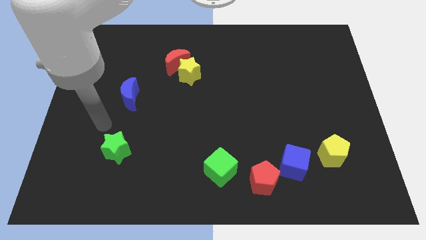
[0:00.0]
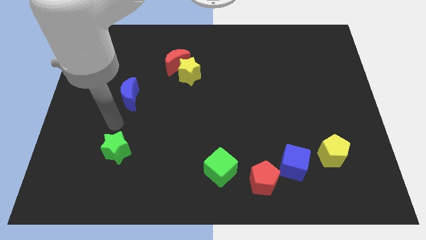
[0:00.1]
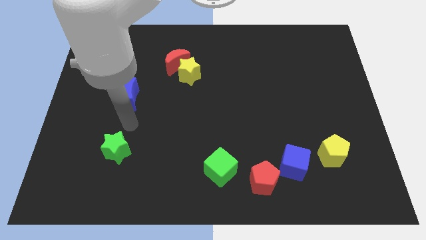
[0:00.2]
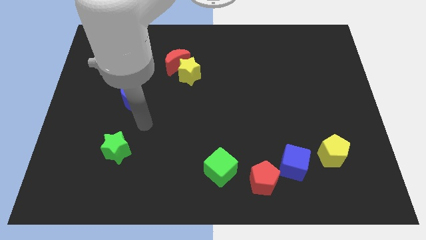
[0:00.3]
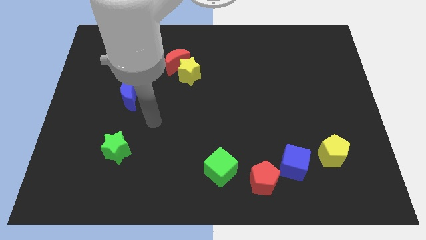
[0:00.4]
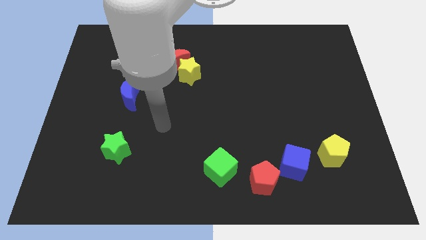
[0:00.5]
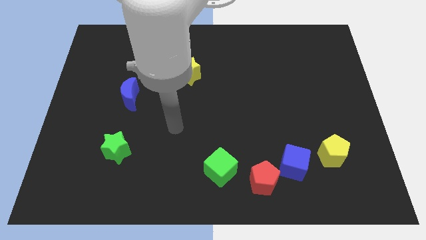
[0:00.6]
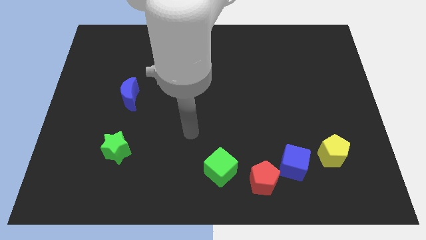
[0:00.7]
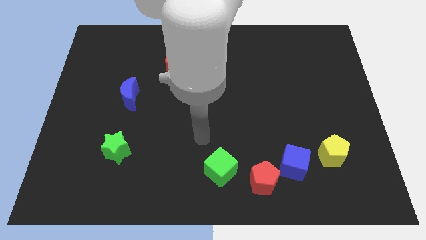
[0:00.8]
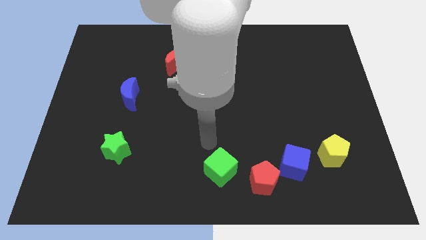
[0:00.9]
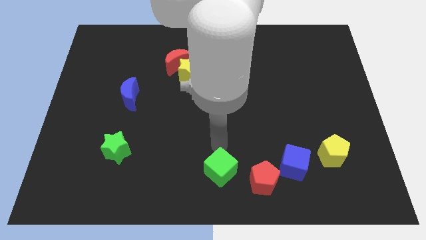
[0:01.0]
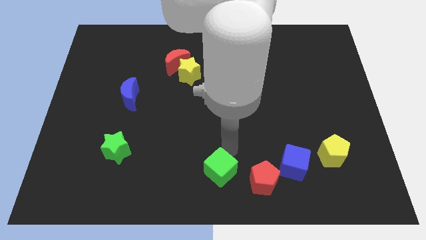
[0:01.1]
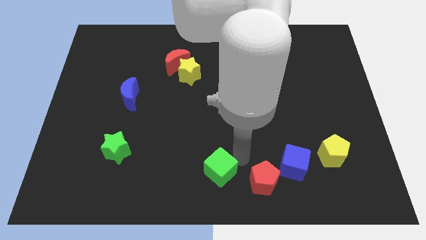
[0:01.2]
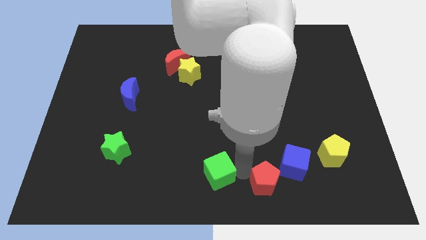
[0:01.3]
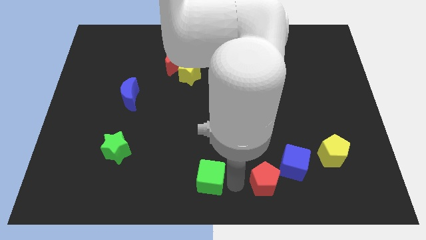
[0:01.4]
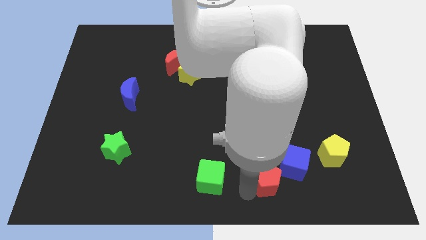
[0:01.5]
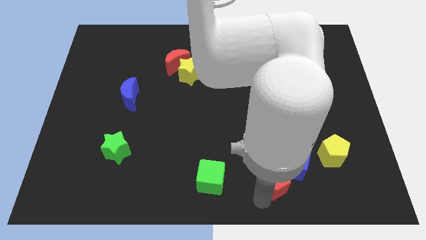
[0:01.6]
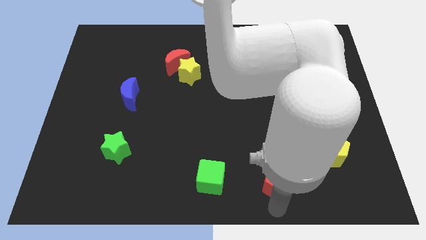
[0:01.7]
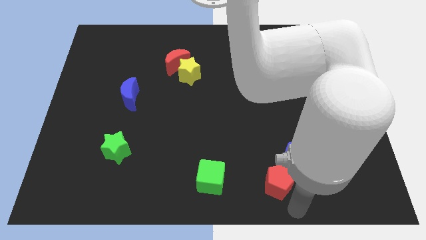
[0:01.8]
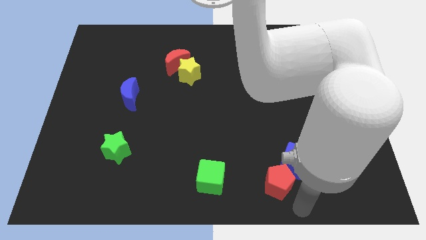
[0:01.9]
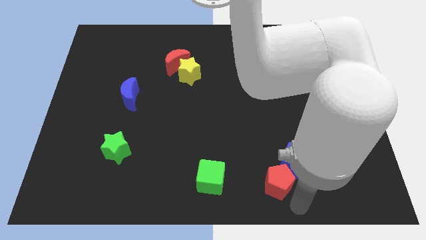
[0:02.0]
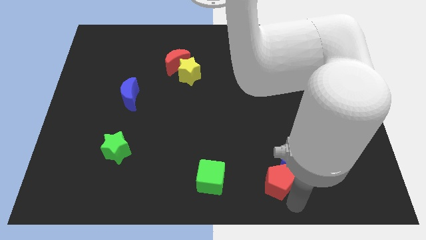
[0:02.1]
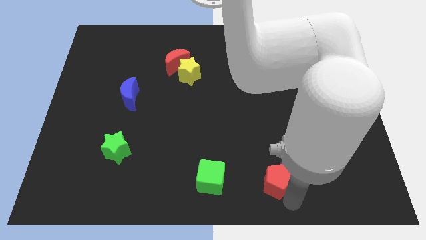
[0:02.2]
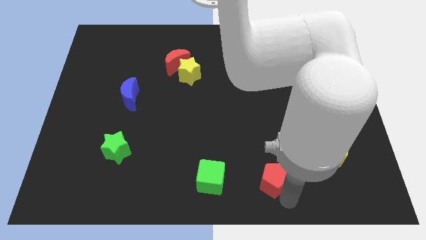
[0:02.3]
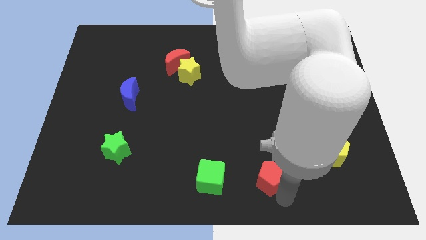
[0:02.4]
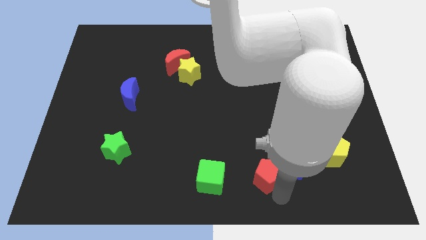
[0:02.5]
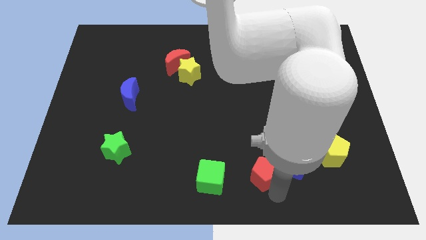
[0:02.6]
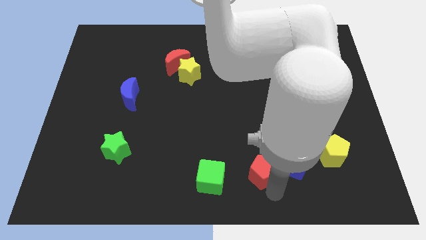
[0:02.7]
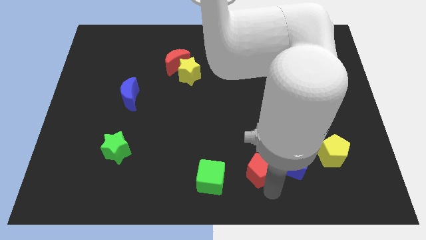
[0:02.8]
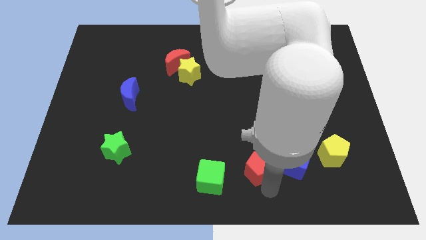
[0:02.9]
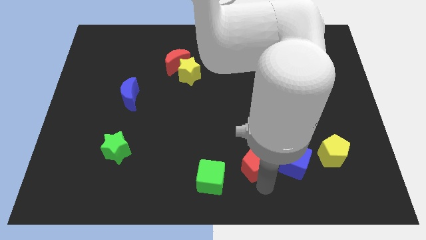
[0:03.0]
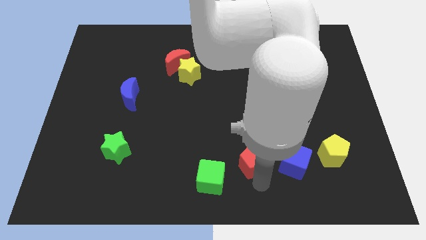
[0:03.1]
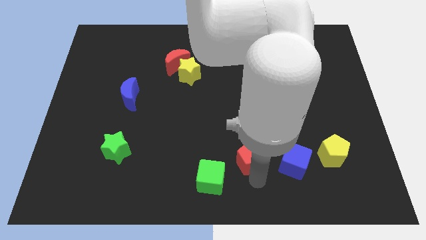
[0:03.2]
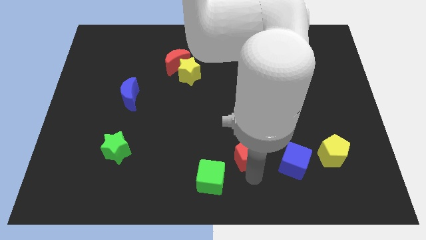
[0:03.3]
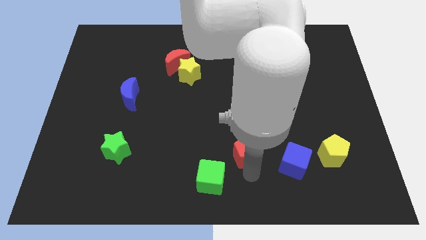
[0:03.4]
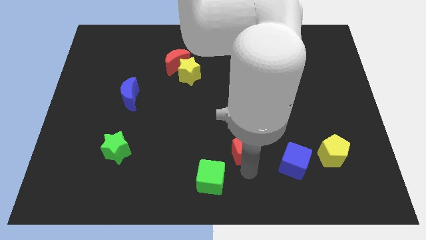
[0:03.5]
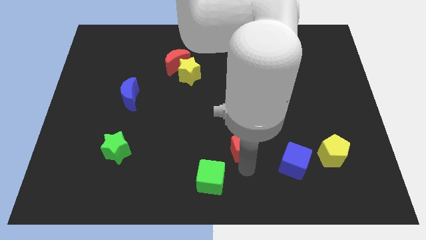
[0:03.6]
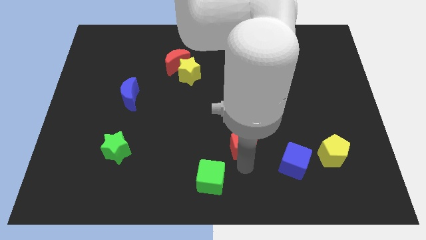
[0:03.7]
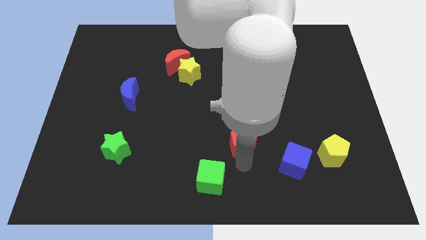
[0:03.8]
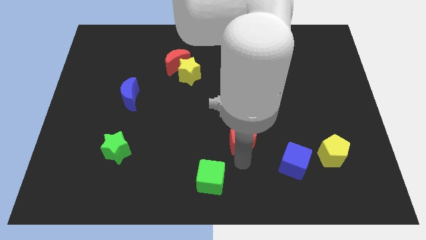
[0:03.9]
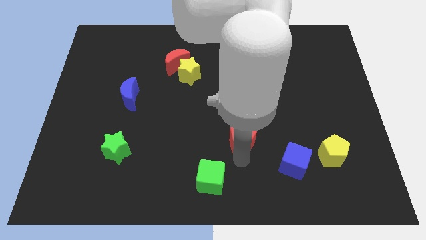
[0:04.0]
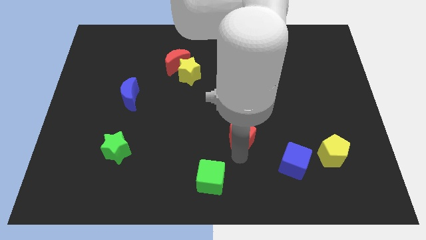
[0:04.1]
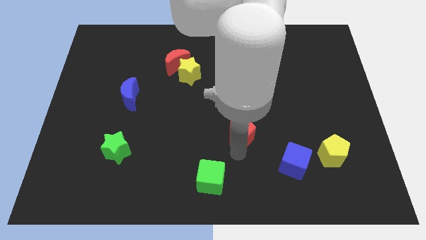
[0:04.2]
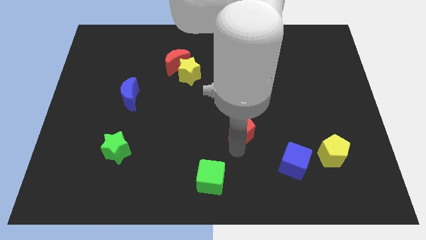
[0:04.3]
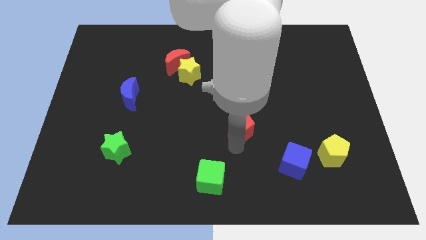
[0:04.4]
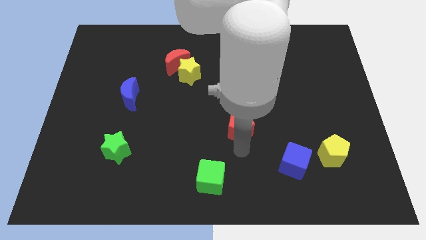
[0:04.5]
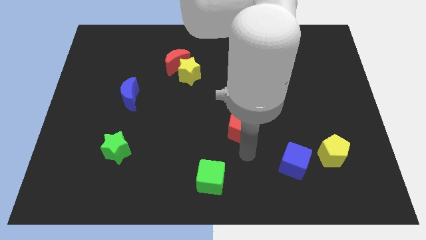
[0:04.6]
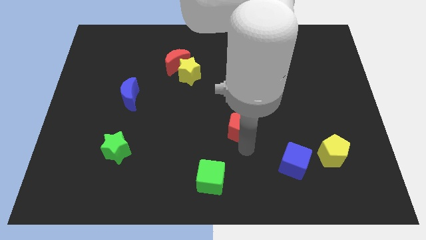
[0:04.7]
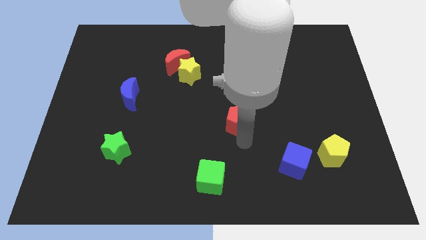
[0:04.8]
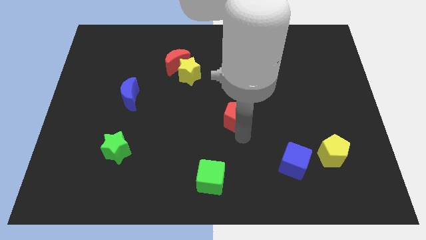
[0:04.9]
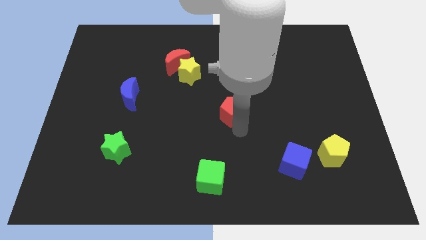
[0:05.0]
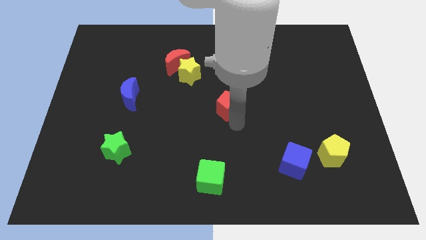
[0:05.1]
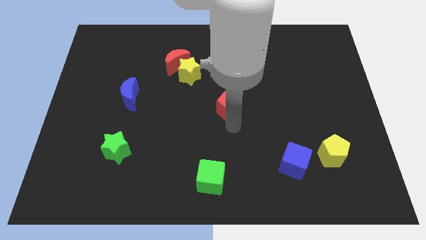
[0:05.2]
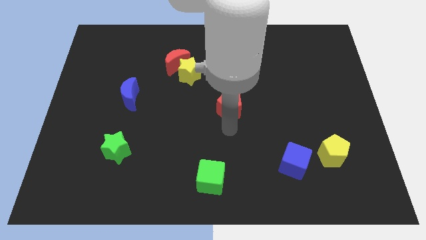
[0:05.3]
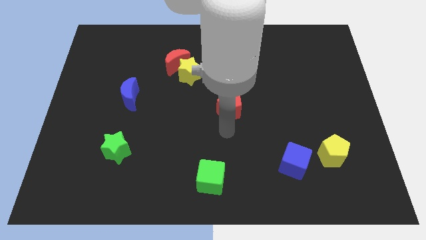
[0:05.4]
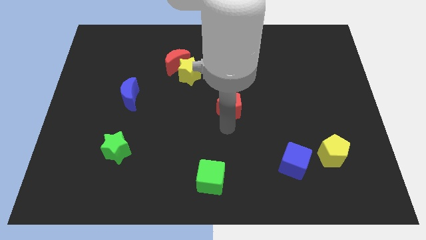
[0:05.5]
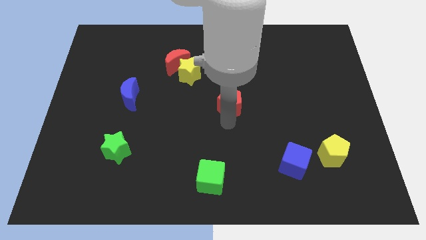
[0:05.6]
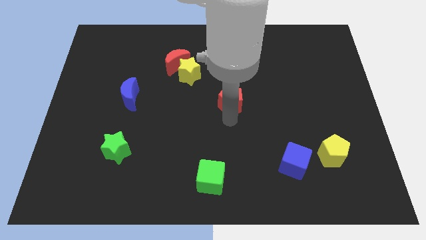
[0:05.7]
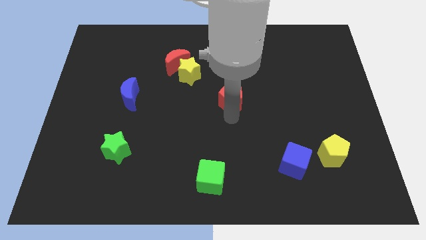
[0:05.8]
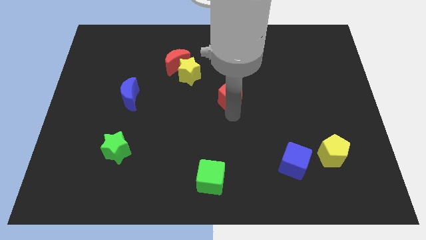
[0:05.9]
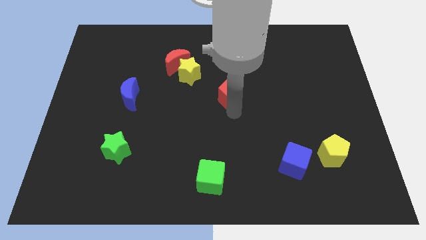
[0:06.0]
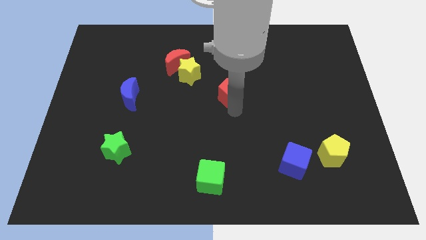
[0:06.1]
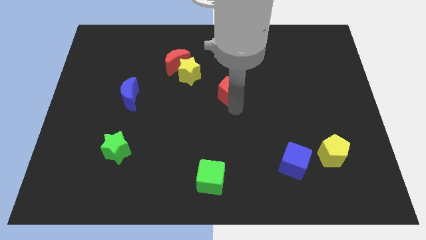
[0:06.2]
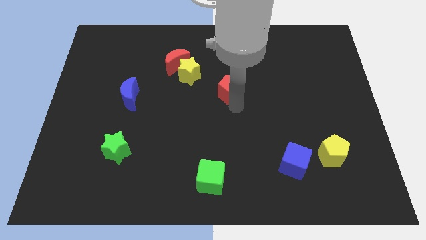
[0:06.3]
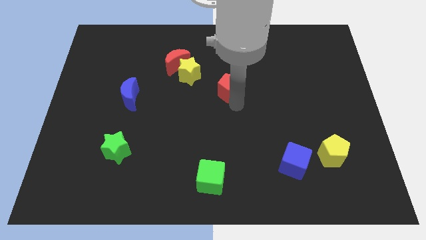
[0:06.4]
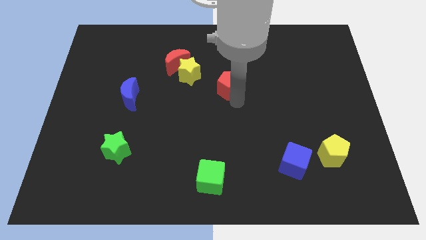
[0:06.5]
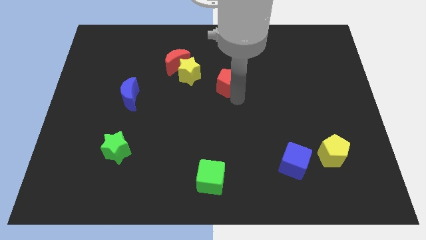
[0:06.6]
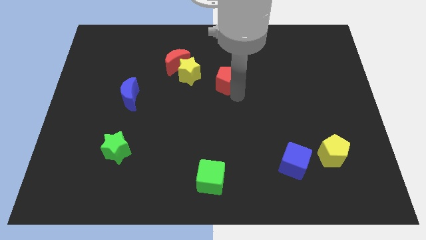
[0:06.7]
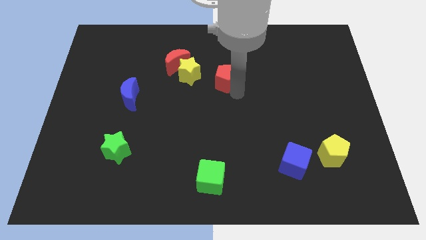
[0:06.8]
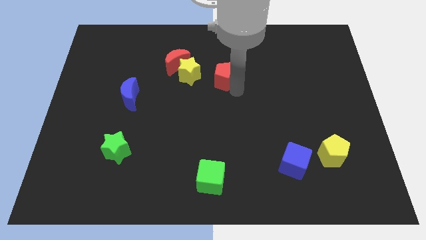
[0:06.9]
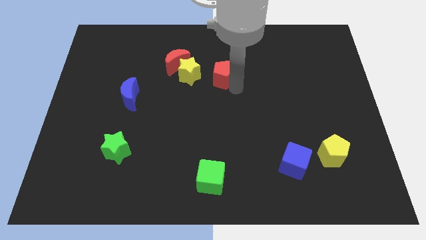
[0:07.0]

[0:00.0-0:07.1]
move the red pentagon right of the red moon
